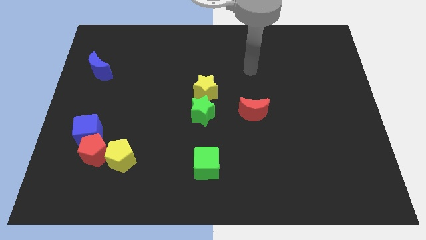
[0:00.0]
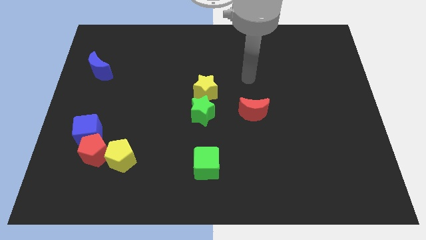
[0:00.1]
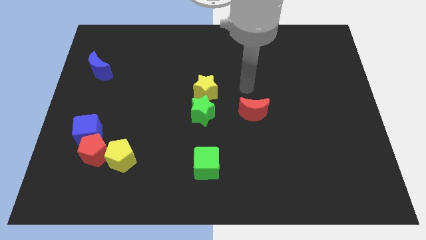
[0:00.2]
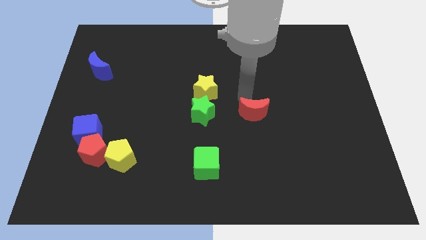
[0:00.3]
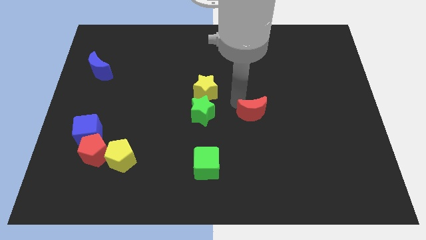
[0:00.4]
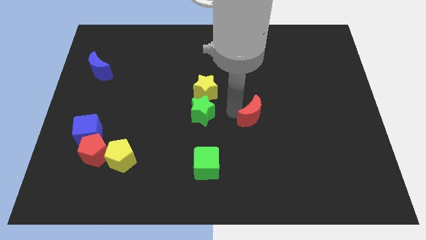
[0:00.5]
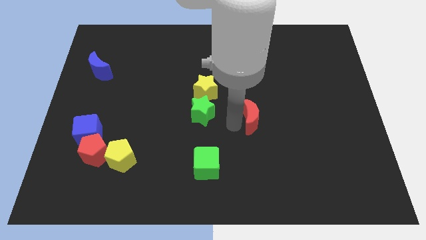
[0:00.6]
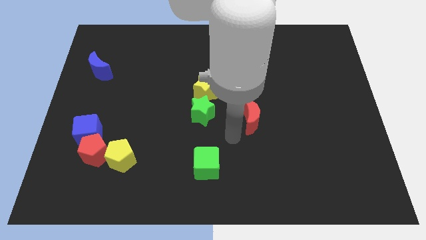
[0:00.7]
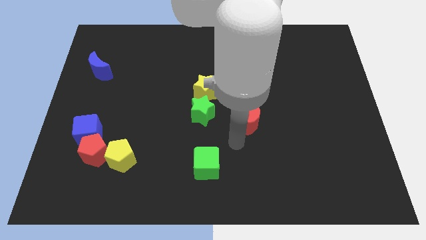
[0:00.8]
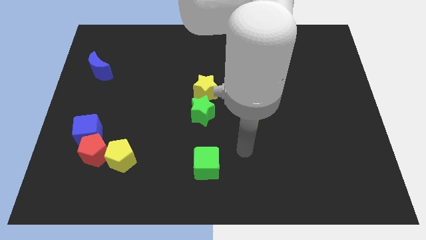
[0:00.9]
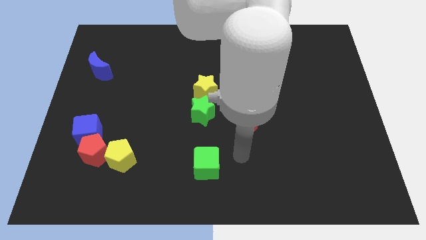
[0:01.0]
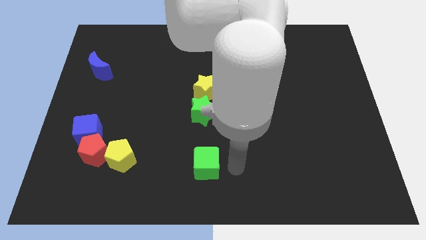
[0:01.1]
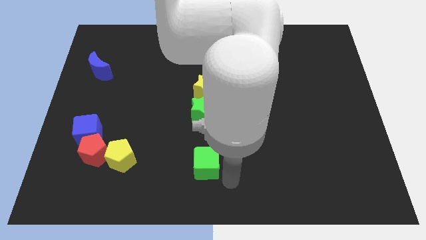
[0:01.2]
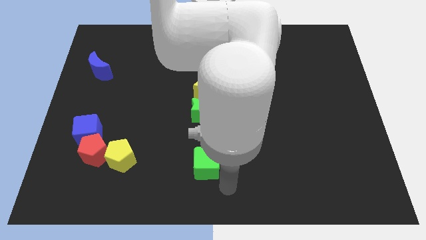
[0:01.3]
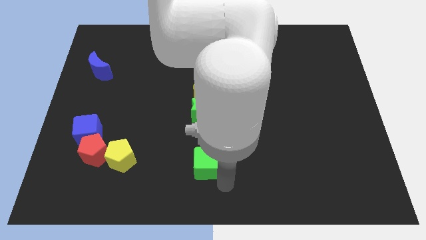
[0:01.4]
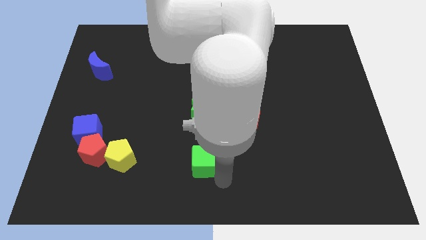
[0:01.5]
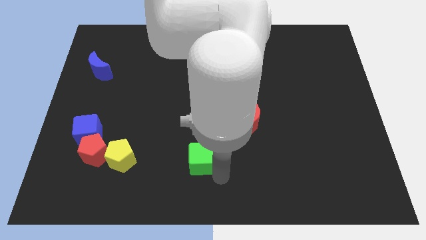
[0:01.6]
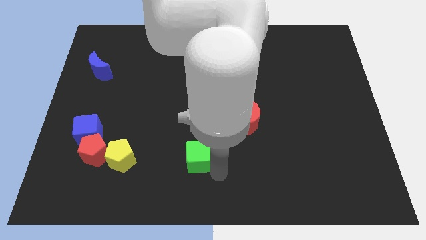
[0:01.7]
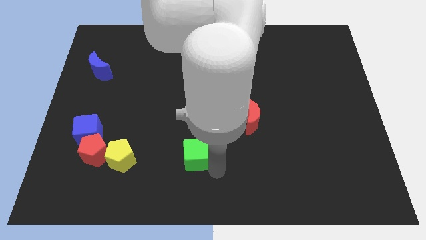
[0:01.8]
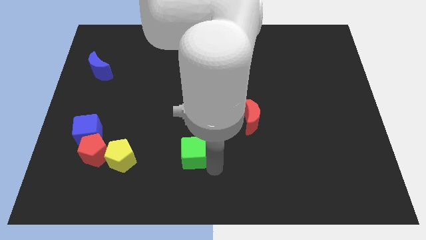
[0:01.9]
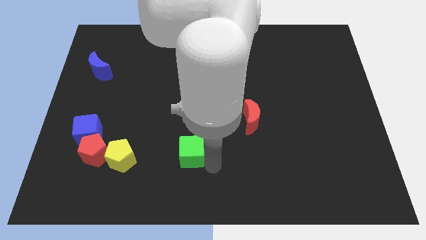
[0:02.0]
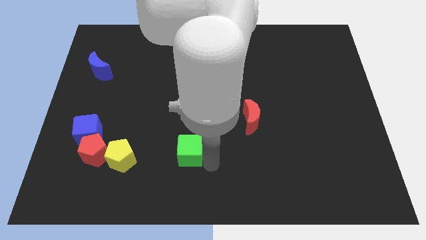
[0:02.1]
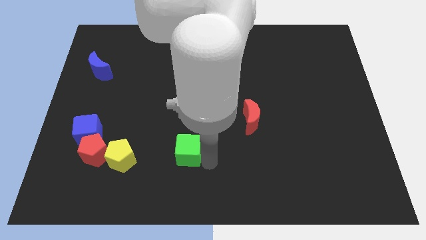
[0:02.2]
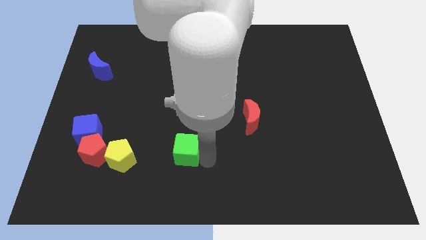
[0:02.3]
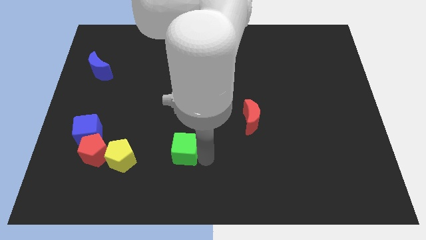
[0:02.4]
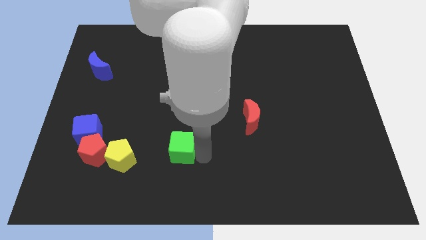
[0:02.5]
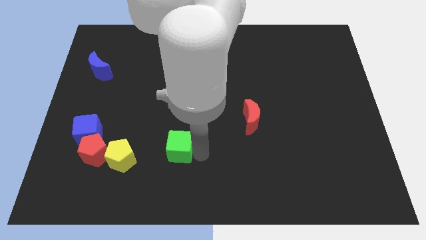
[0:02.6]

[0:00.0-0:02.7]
slightly slide the green cube up and then to the left

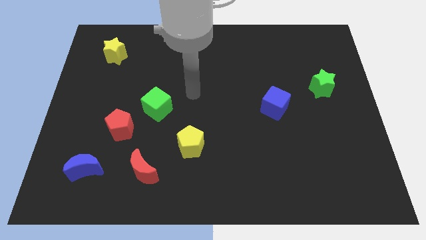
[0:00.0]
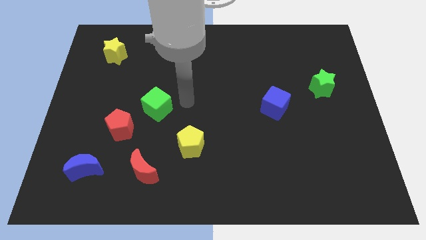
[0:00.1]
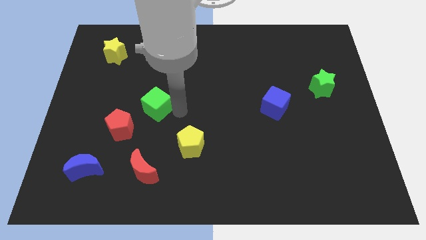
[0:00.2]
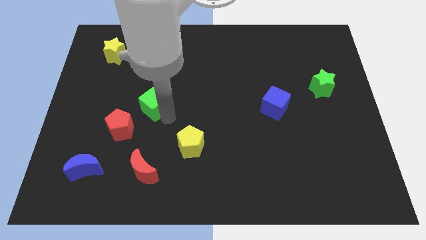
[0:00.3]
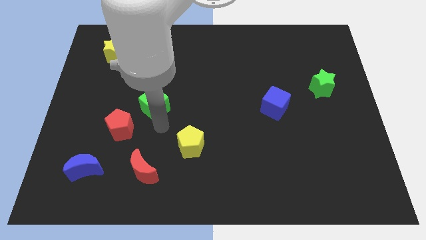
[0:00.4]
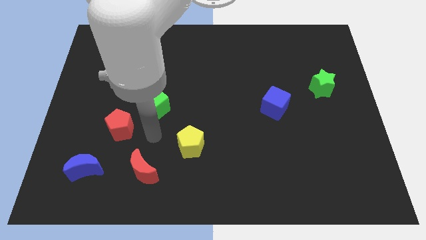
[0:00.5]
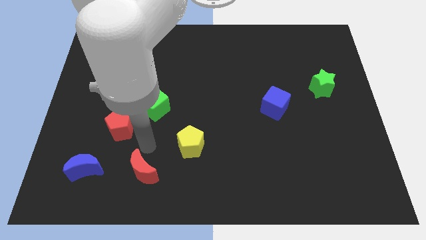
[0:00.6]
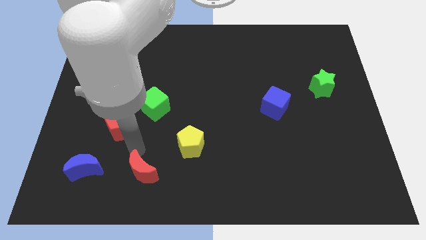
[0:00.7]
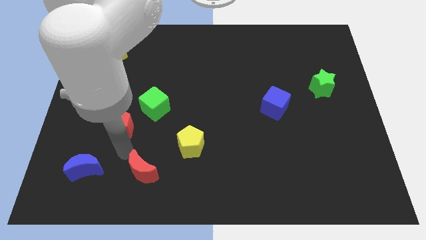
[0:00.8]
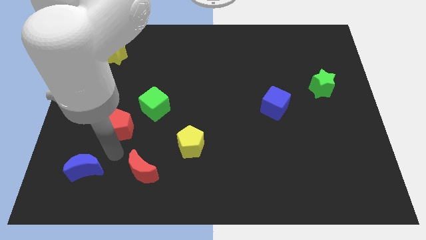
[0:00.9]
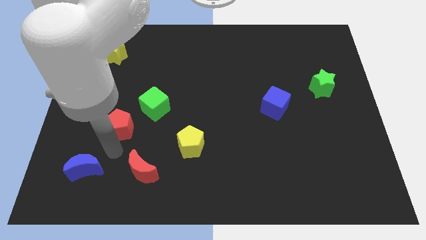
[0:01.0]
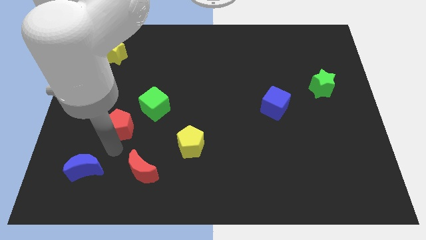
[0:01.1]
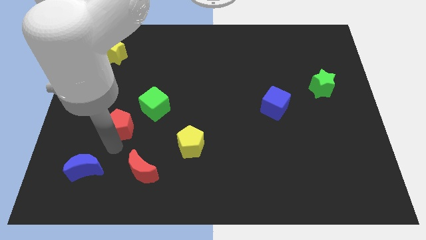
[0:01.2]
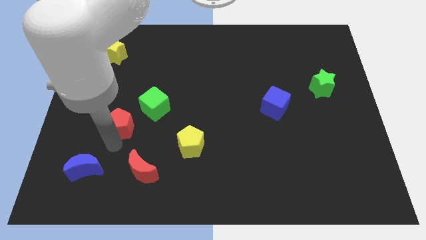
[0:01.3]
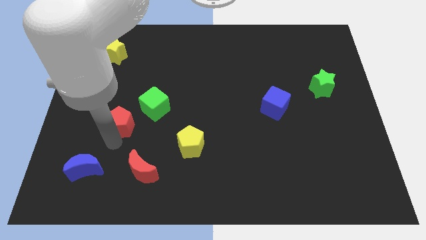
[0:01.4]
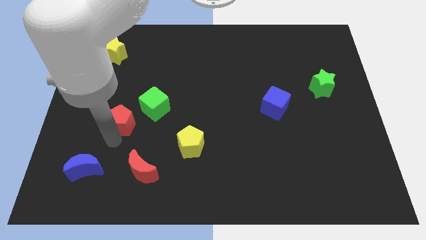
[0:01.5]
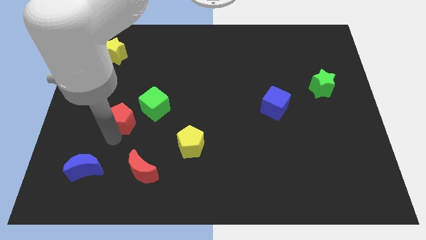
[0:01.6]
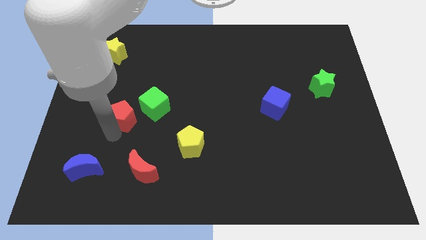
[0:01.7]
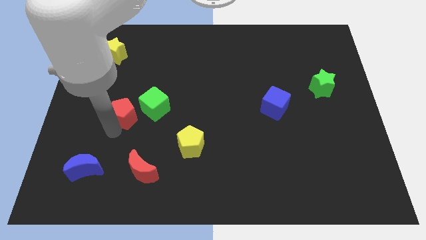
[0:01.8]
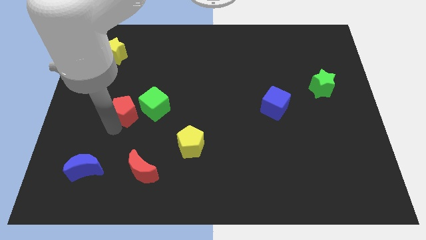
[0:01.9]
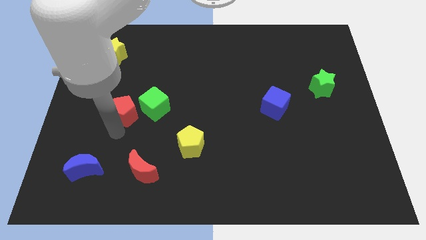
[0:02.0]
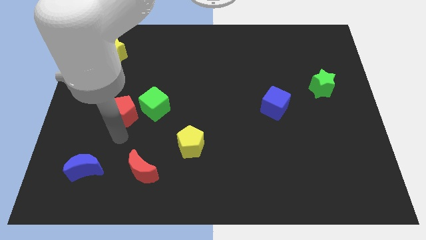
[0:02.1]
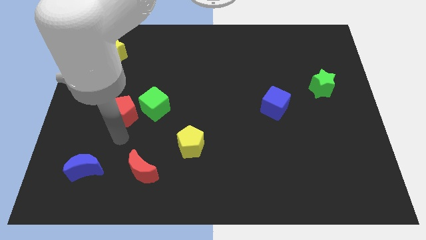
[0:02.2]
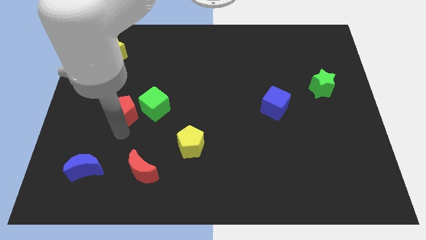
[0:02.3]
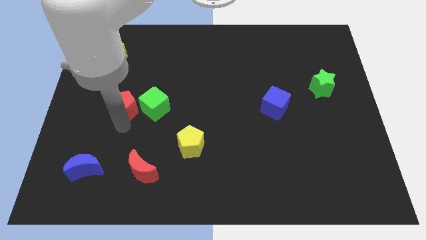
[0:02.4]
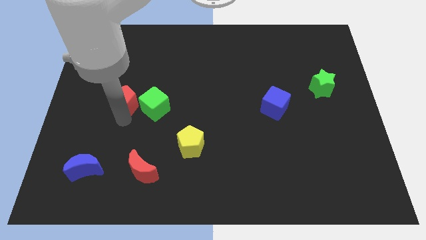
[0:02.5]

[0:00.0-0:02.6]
move the red pentagon a little upwards

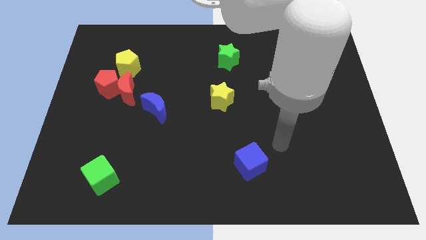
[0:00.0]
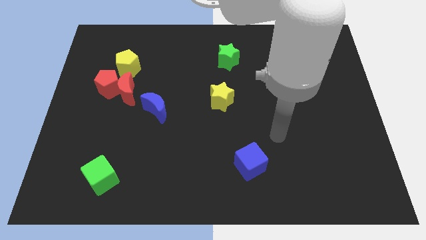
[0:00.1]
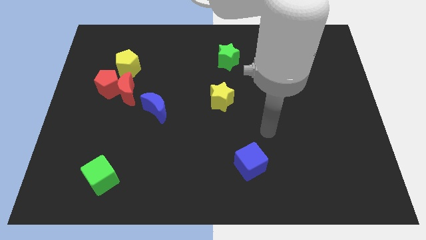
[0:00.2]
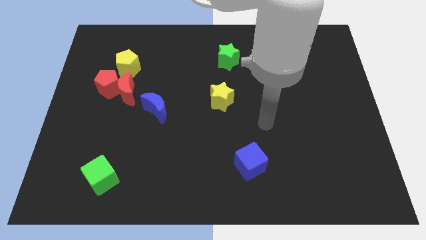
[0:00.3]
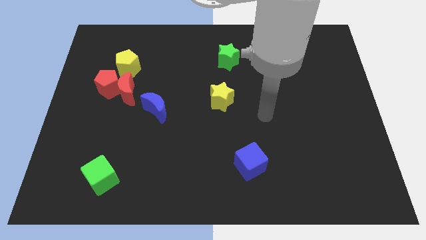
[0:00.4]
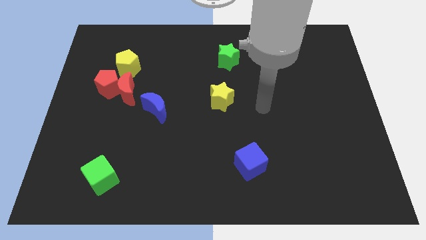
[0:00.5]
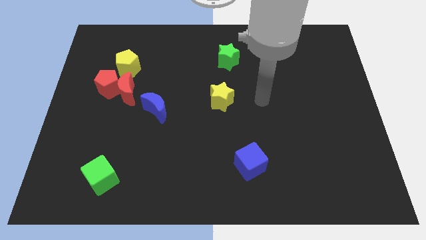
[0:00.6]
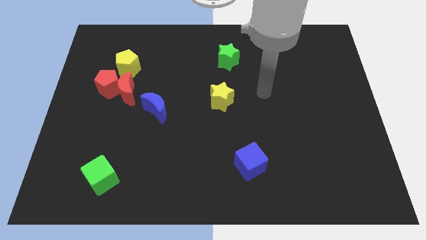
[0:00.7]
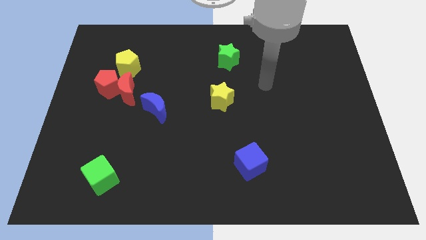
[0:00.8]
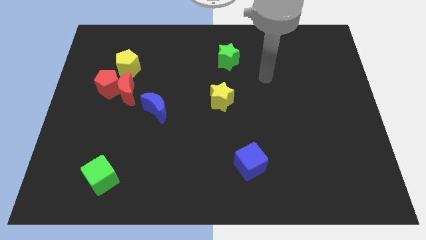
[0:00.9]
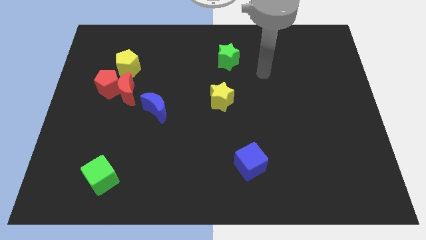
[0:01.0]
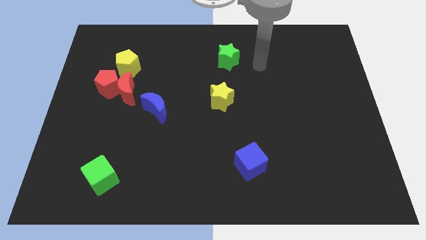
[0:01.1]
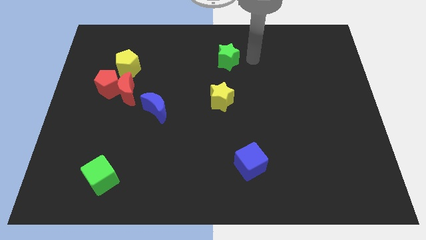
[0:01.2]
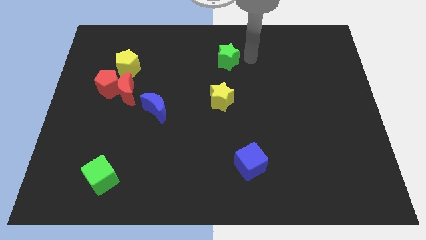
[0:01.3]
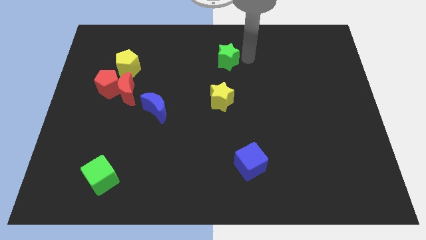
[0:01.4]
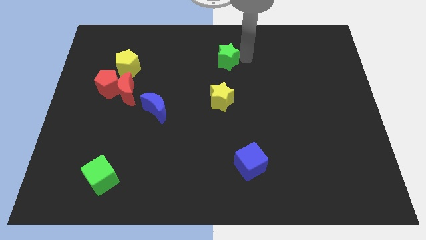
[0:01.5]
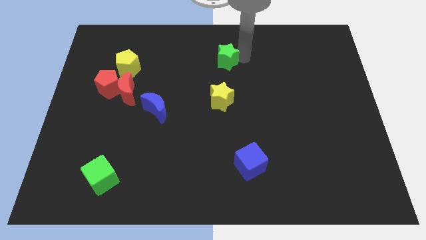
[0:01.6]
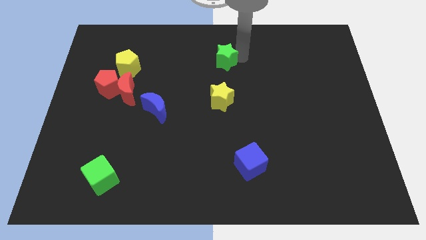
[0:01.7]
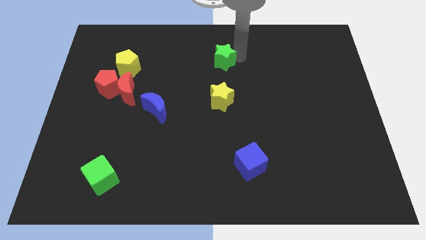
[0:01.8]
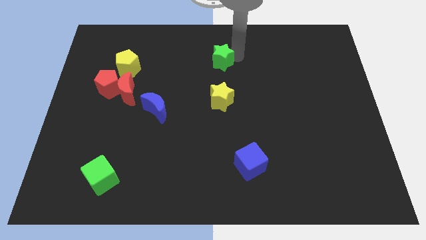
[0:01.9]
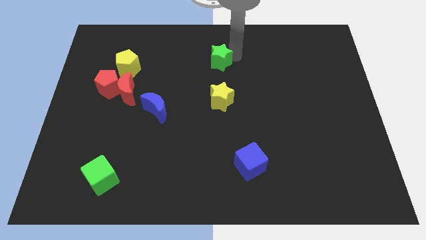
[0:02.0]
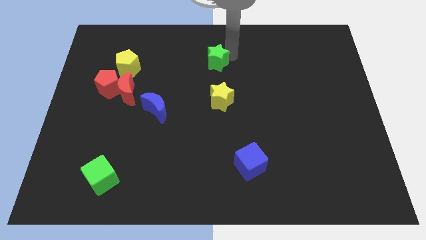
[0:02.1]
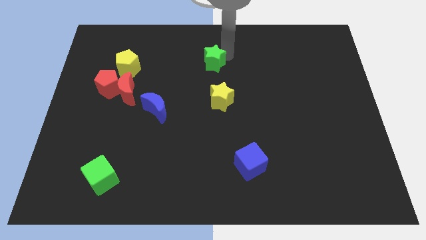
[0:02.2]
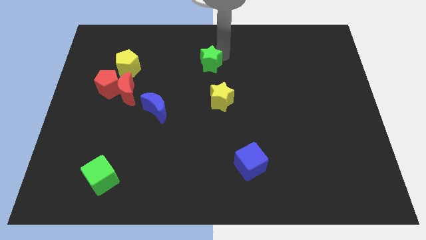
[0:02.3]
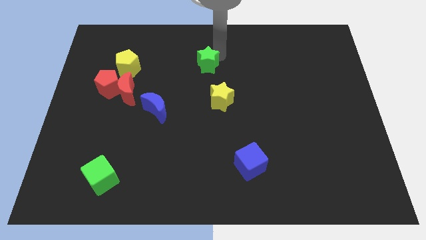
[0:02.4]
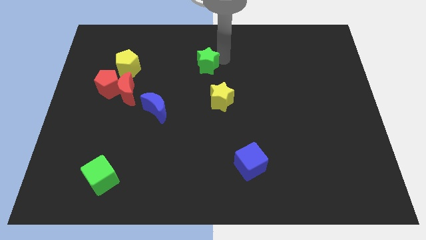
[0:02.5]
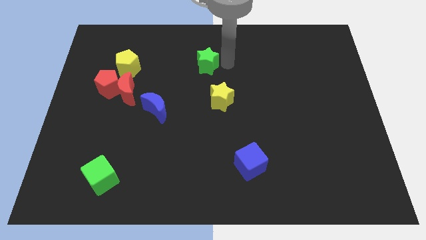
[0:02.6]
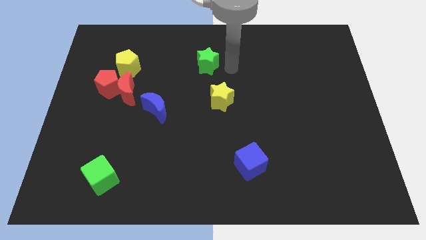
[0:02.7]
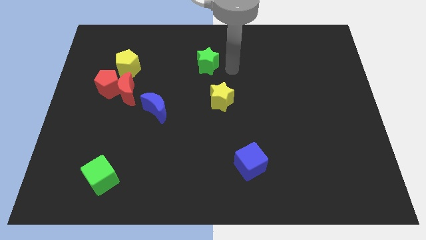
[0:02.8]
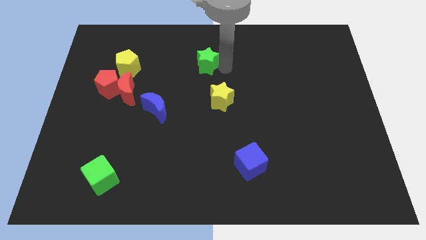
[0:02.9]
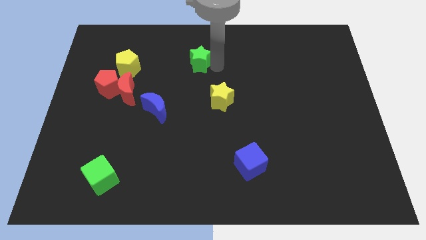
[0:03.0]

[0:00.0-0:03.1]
move the green star a bit to the left
